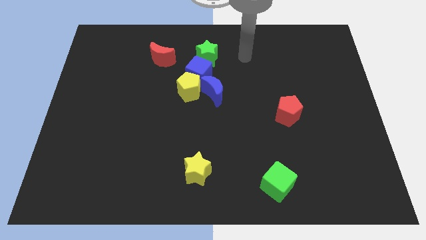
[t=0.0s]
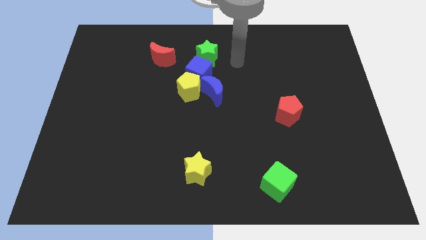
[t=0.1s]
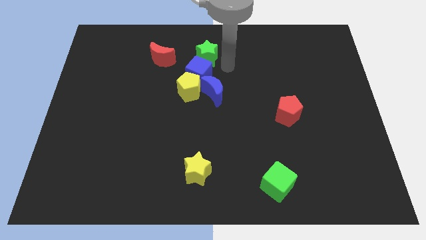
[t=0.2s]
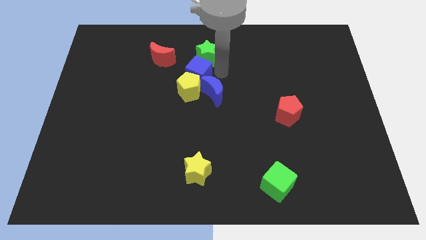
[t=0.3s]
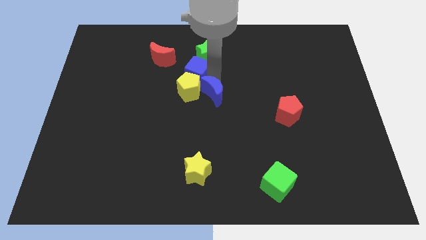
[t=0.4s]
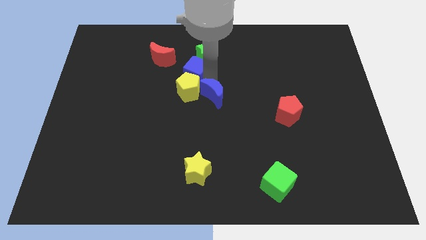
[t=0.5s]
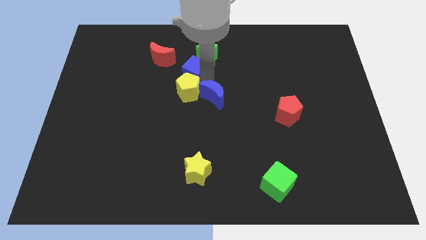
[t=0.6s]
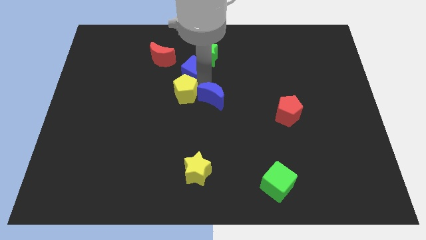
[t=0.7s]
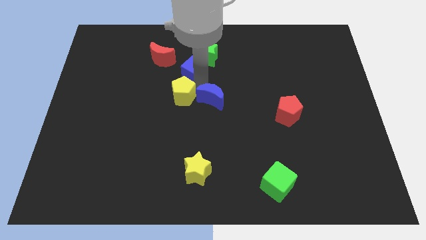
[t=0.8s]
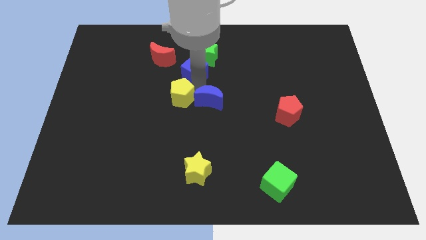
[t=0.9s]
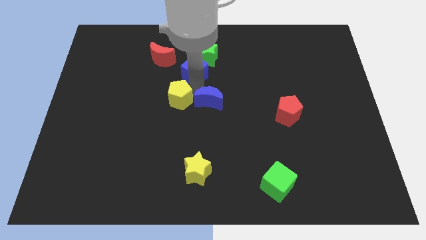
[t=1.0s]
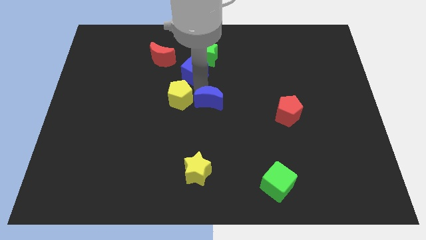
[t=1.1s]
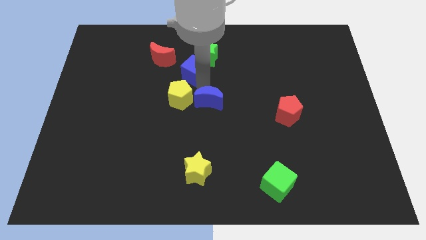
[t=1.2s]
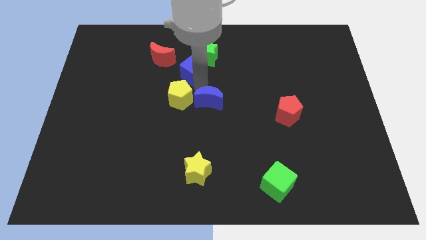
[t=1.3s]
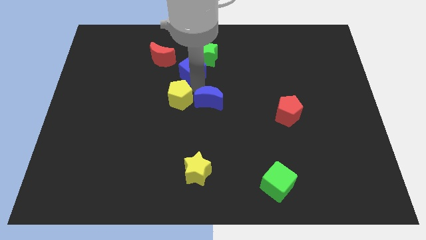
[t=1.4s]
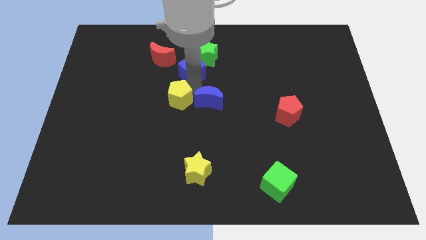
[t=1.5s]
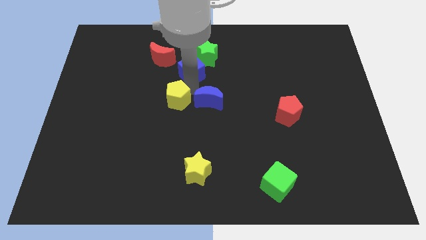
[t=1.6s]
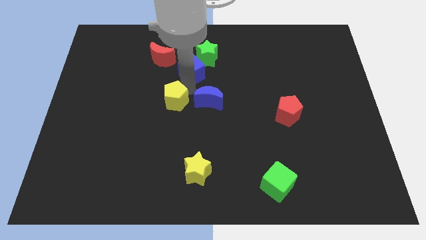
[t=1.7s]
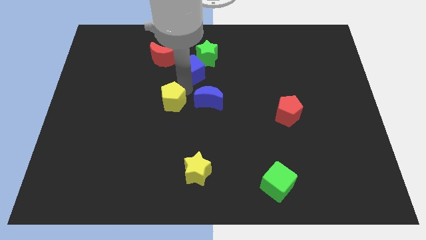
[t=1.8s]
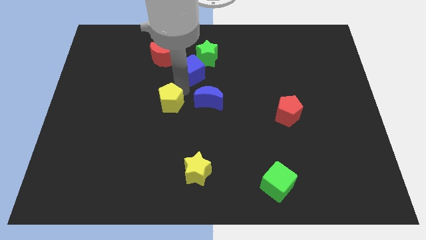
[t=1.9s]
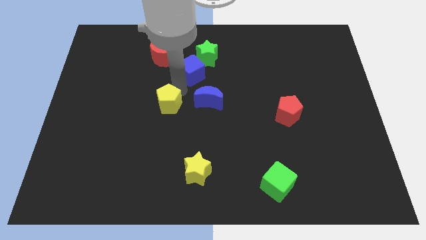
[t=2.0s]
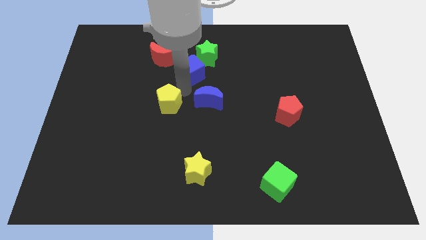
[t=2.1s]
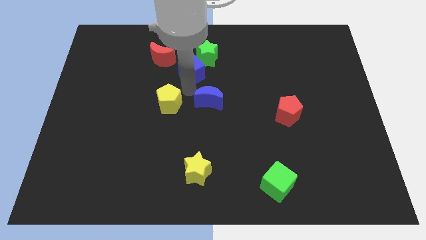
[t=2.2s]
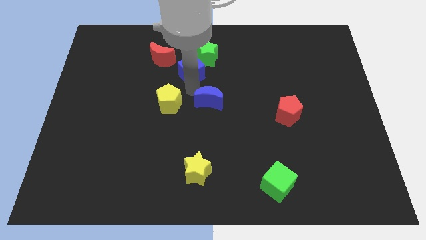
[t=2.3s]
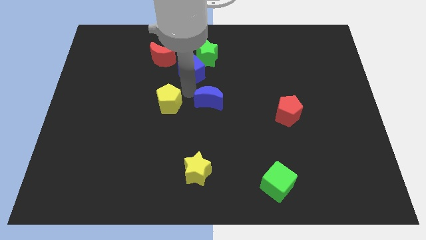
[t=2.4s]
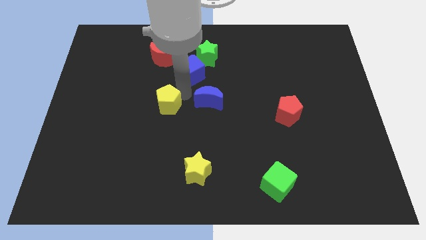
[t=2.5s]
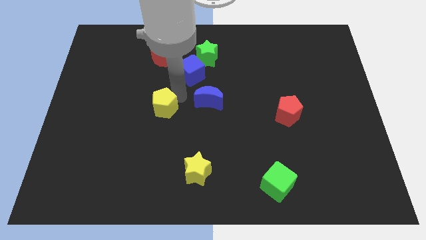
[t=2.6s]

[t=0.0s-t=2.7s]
separate the yellow pentagon from the blue cube and blue moon

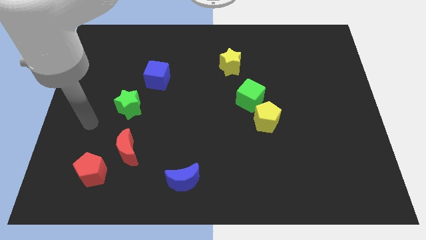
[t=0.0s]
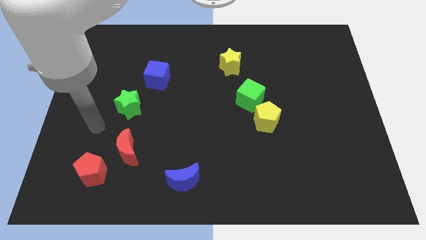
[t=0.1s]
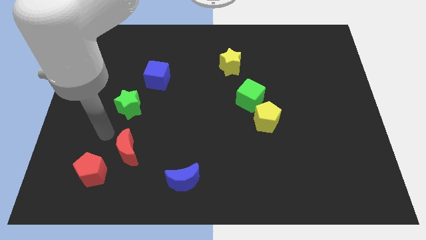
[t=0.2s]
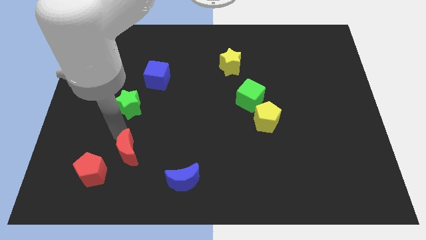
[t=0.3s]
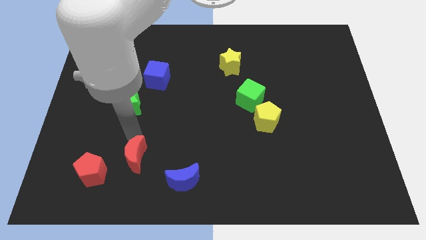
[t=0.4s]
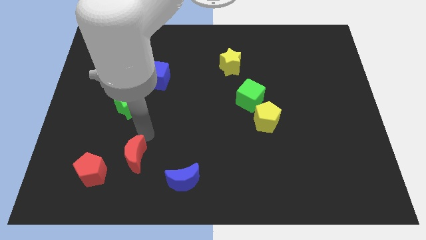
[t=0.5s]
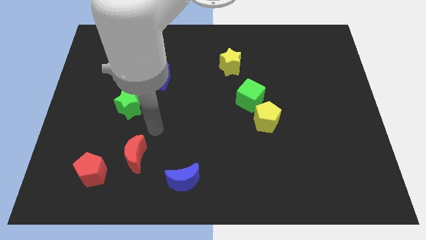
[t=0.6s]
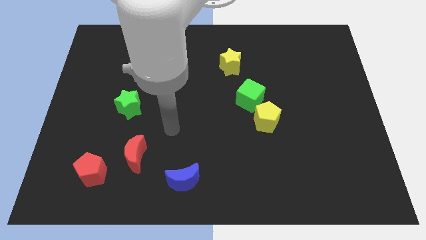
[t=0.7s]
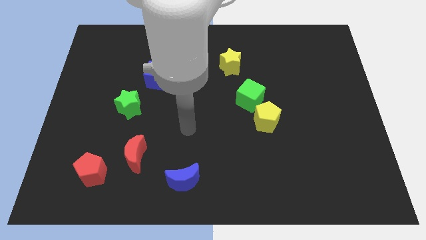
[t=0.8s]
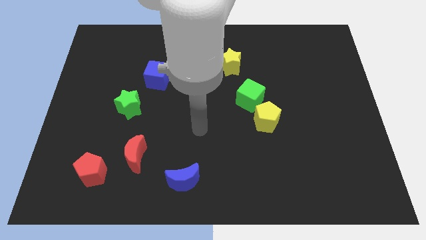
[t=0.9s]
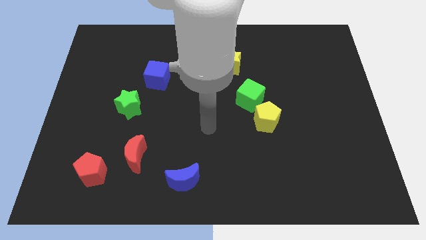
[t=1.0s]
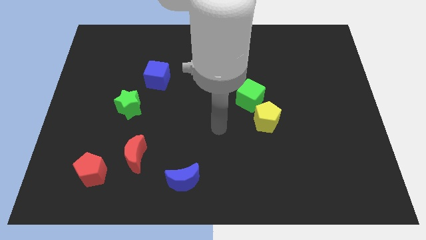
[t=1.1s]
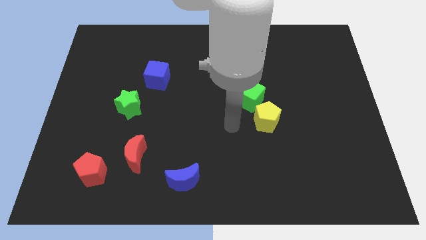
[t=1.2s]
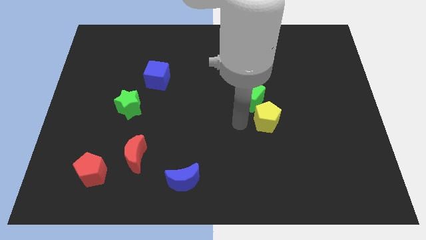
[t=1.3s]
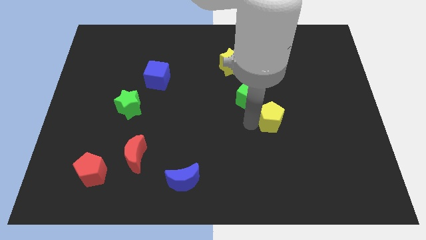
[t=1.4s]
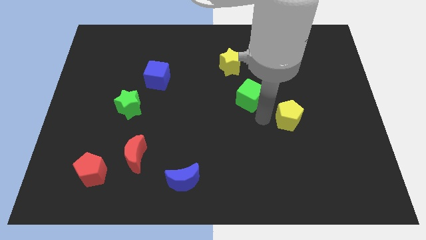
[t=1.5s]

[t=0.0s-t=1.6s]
separate the green cube from the yellow pentagon

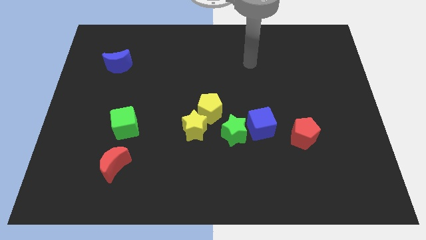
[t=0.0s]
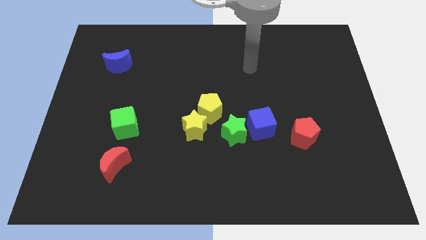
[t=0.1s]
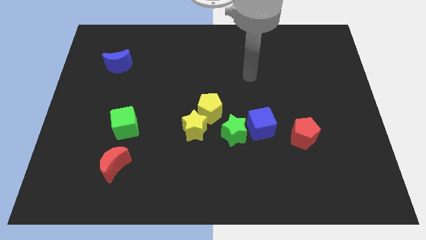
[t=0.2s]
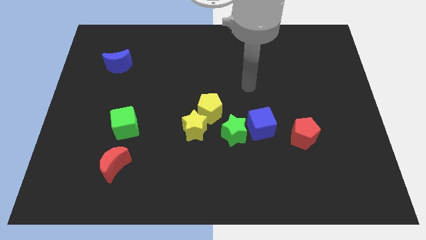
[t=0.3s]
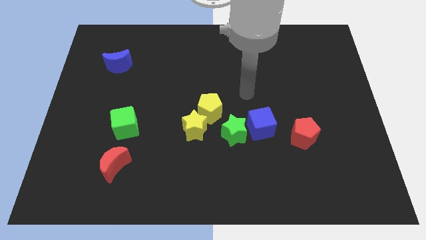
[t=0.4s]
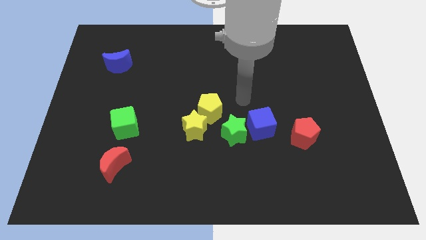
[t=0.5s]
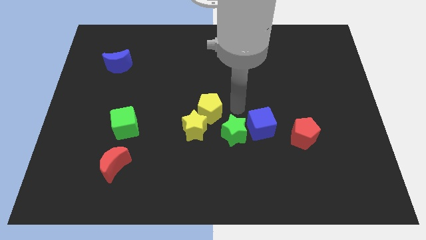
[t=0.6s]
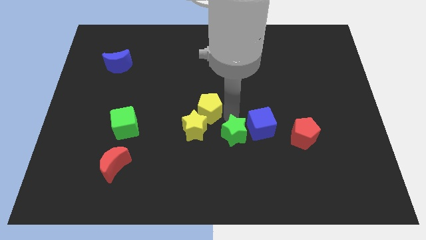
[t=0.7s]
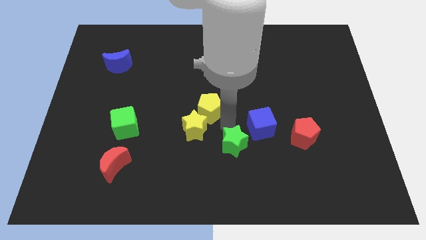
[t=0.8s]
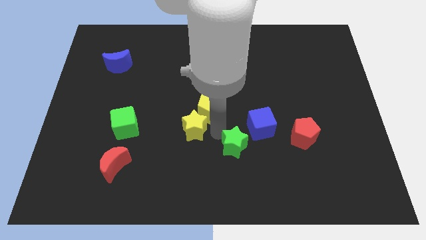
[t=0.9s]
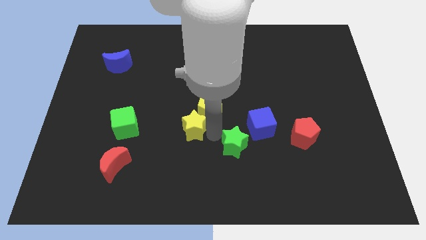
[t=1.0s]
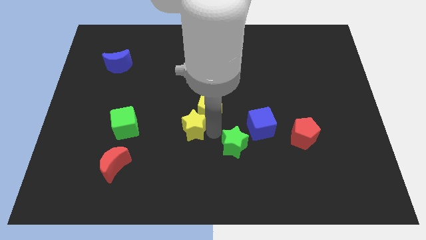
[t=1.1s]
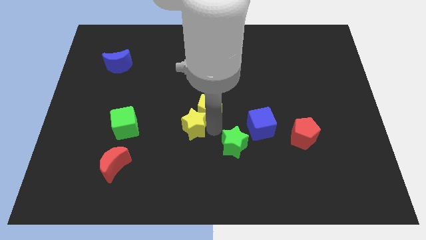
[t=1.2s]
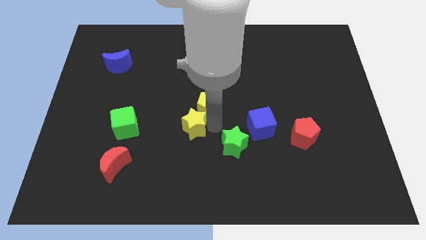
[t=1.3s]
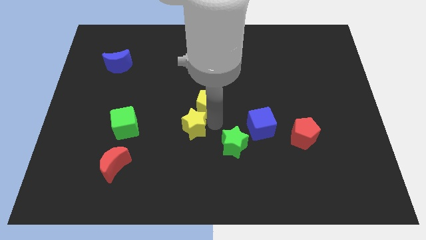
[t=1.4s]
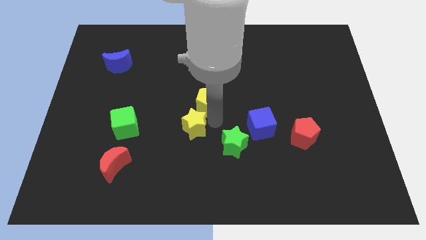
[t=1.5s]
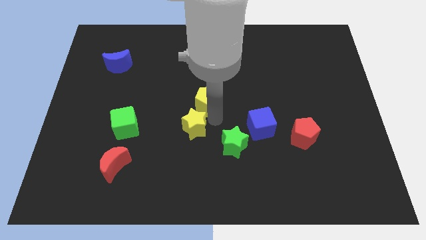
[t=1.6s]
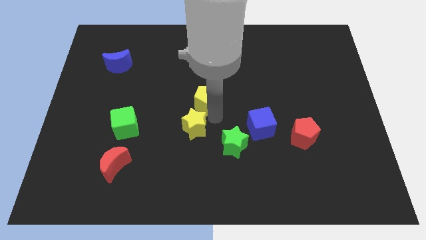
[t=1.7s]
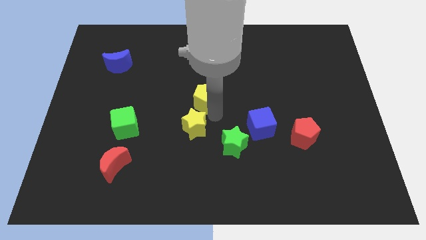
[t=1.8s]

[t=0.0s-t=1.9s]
separate the yellow pentagon from the yellow star and green star

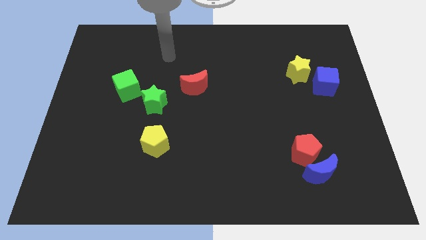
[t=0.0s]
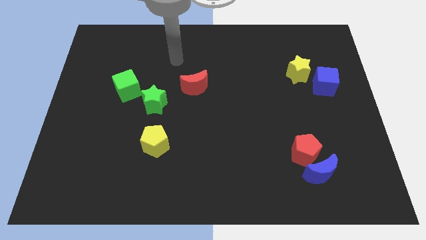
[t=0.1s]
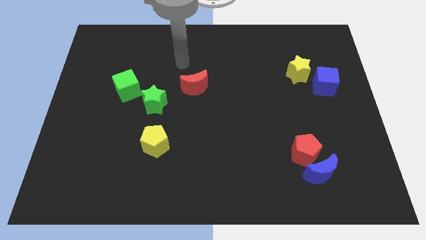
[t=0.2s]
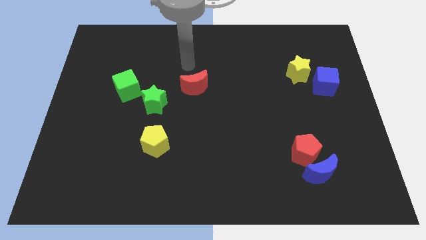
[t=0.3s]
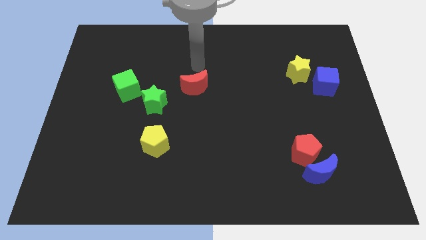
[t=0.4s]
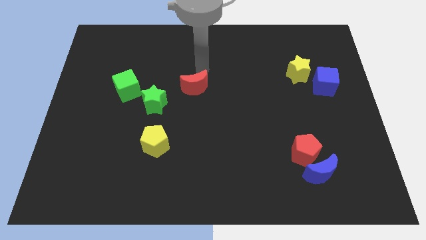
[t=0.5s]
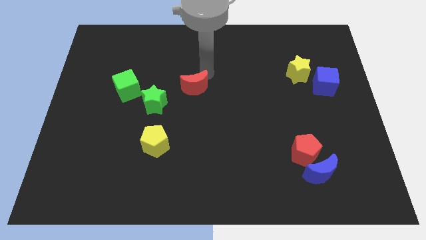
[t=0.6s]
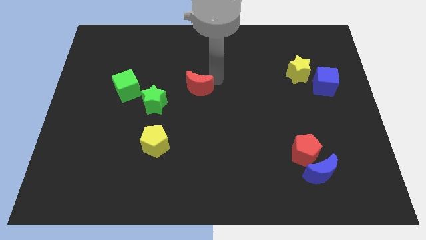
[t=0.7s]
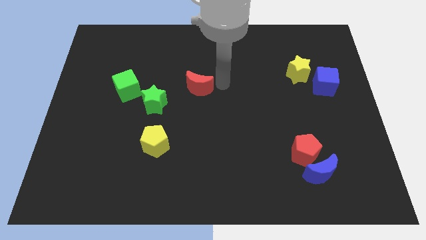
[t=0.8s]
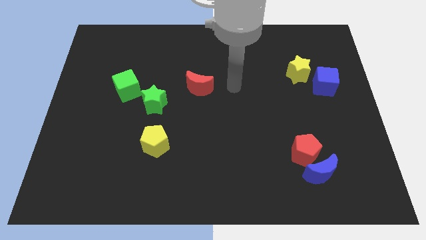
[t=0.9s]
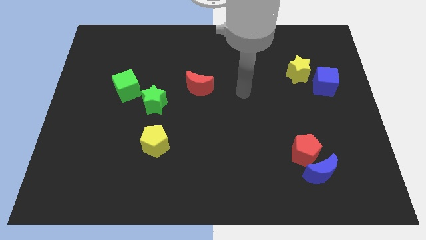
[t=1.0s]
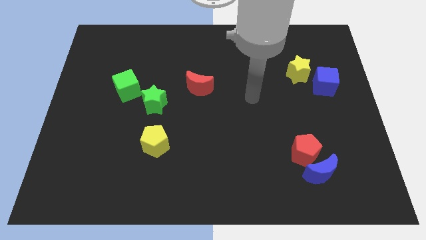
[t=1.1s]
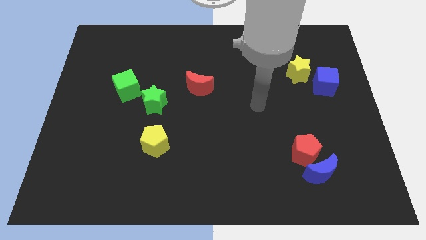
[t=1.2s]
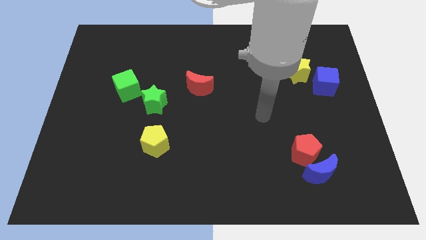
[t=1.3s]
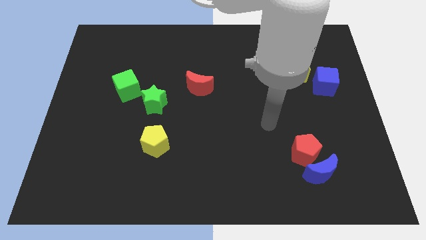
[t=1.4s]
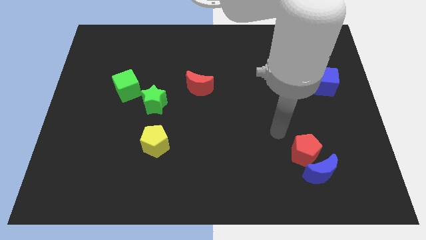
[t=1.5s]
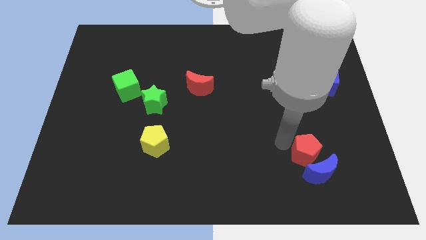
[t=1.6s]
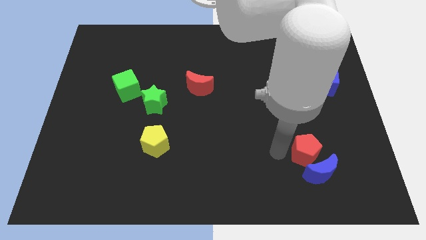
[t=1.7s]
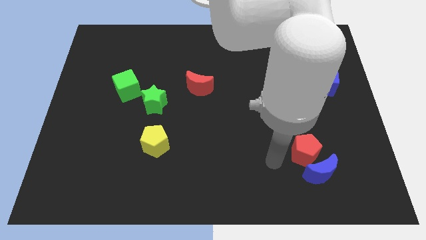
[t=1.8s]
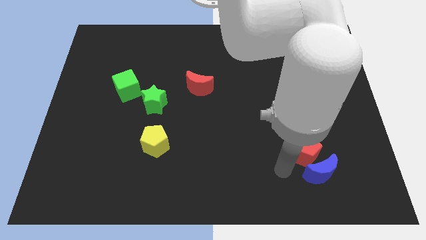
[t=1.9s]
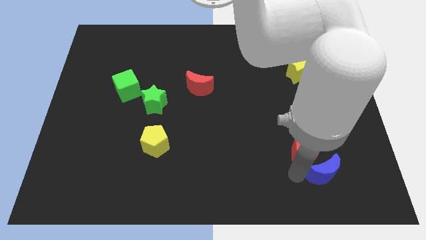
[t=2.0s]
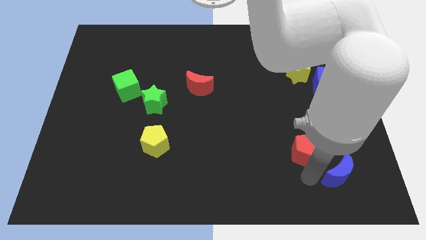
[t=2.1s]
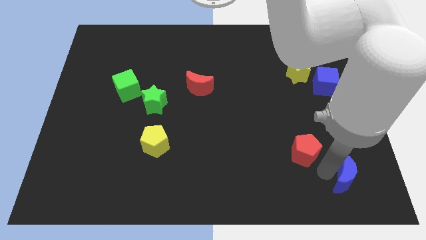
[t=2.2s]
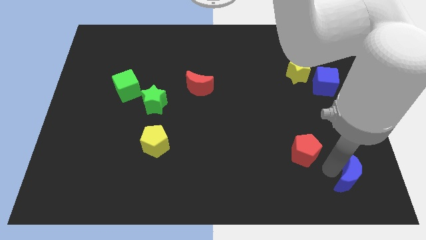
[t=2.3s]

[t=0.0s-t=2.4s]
pull the red pentagon apart from the blue moon

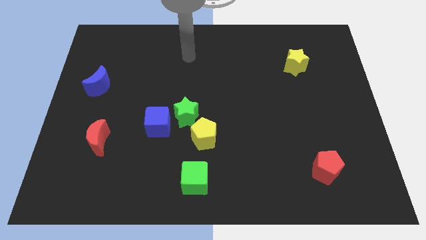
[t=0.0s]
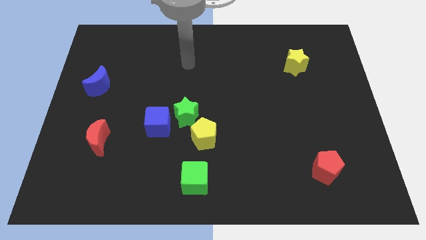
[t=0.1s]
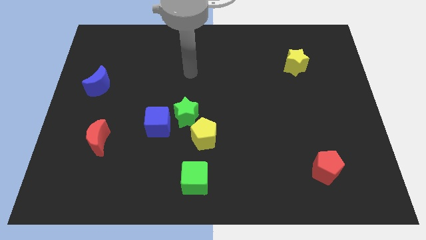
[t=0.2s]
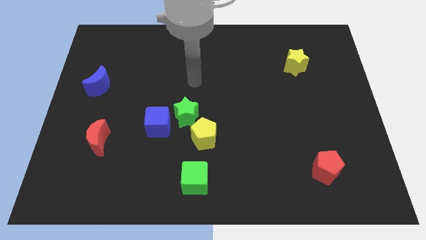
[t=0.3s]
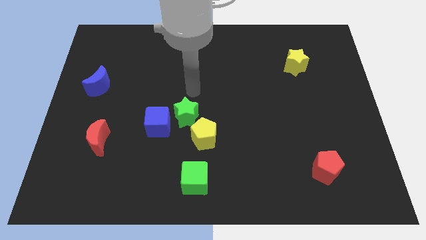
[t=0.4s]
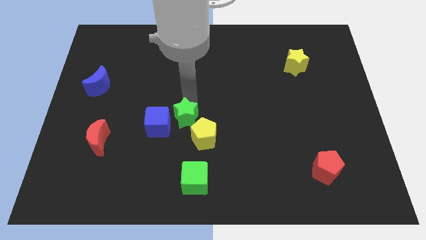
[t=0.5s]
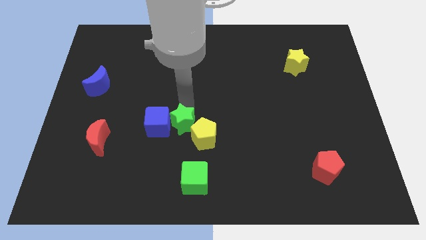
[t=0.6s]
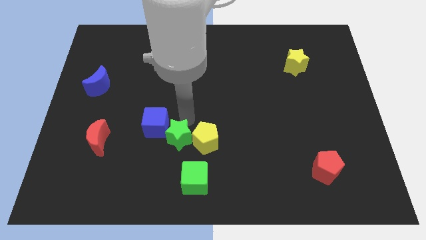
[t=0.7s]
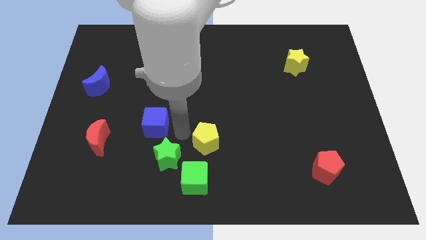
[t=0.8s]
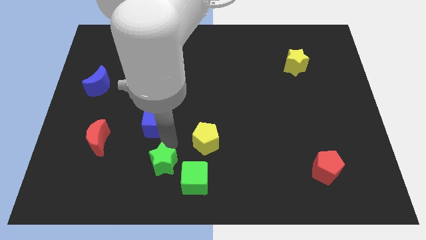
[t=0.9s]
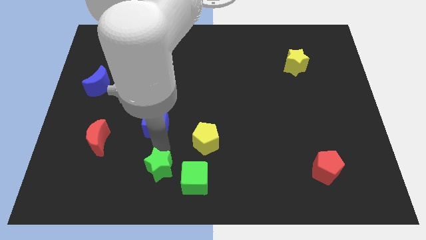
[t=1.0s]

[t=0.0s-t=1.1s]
pull the blue cube apart from the green star
